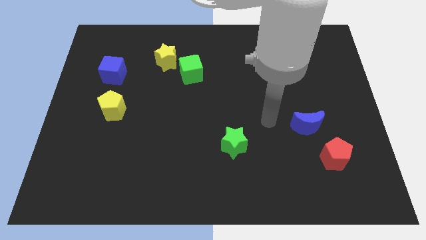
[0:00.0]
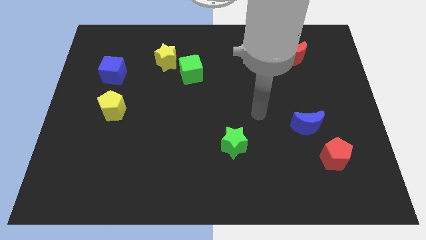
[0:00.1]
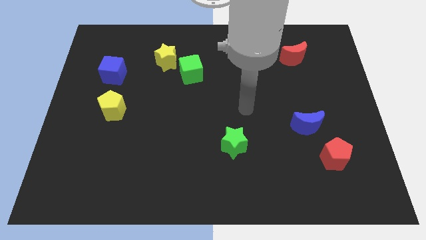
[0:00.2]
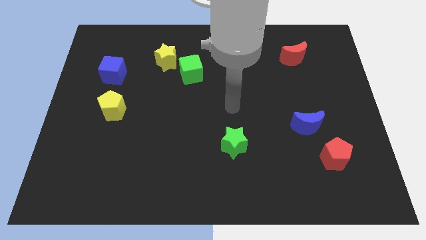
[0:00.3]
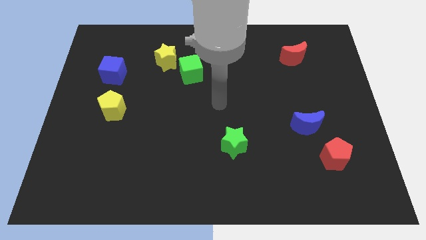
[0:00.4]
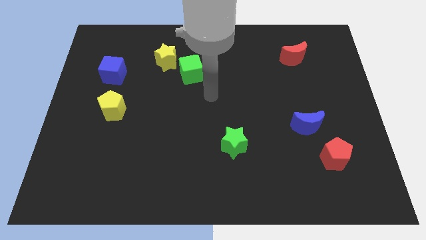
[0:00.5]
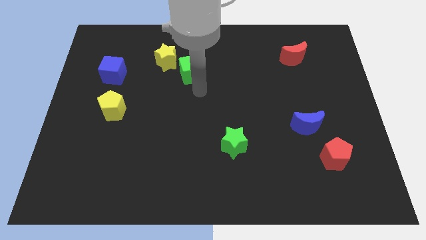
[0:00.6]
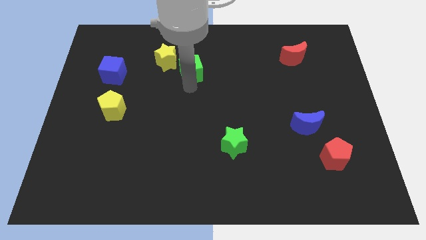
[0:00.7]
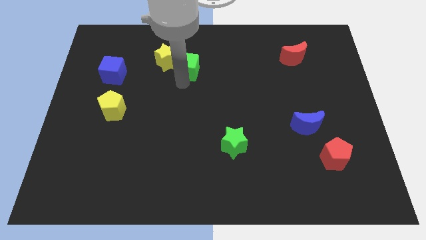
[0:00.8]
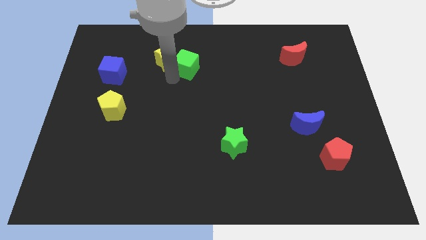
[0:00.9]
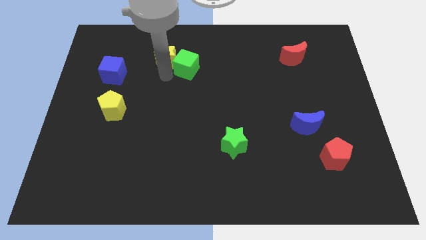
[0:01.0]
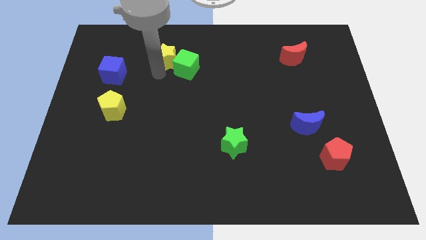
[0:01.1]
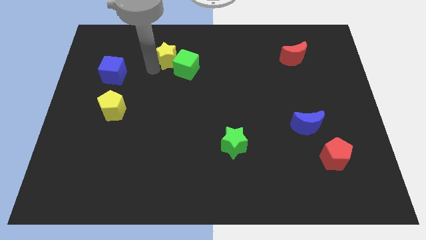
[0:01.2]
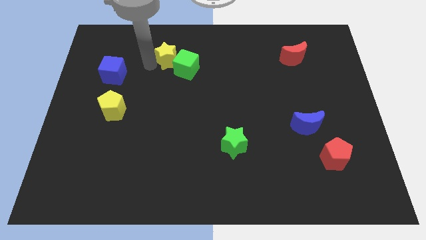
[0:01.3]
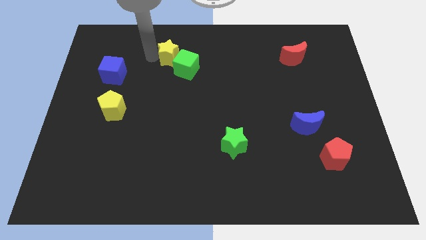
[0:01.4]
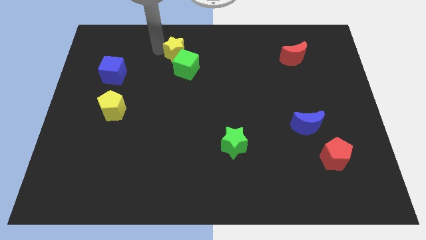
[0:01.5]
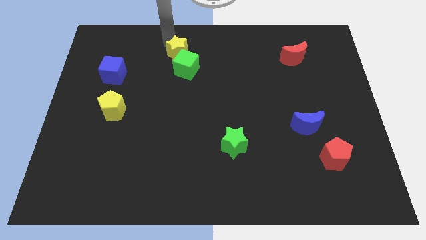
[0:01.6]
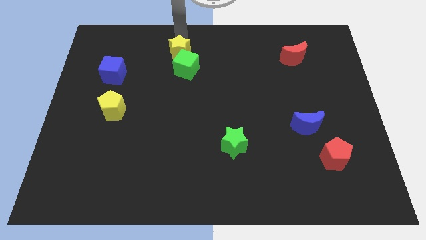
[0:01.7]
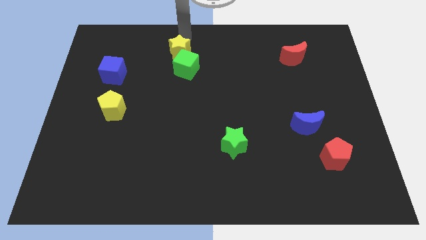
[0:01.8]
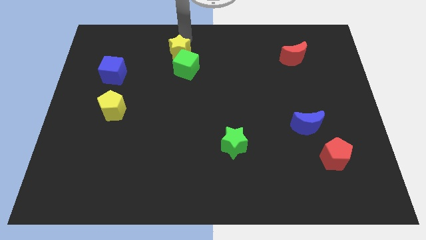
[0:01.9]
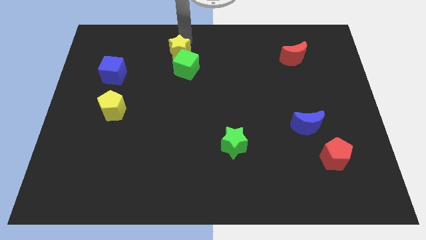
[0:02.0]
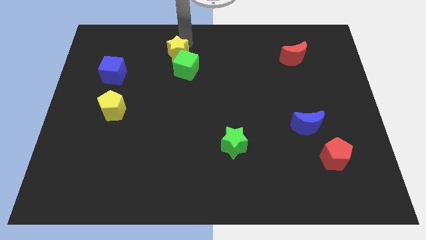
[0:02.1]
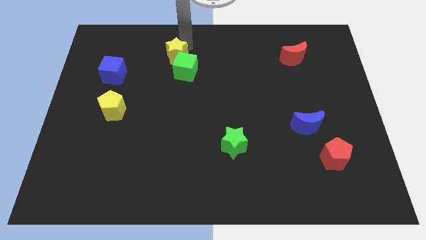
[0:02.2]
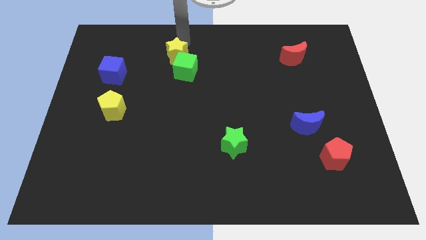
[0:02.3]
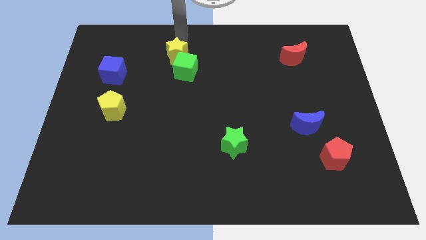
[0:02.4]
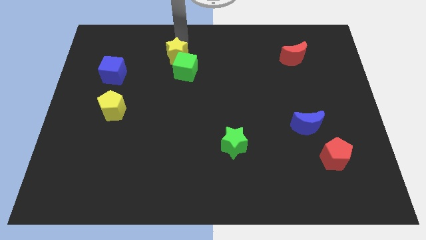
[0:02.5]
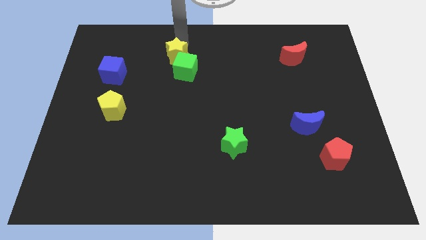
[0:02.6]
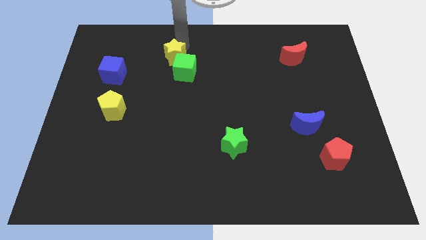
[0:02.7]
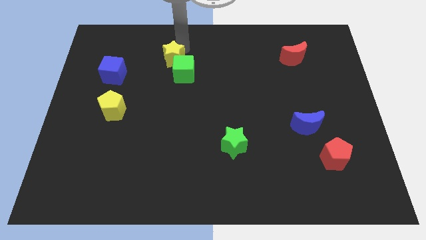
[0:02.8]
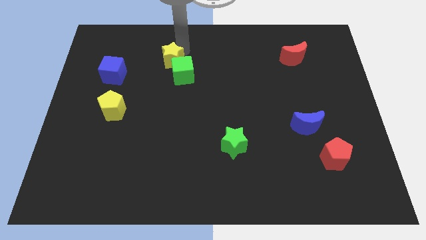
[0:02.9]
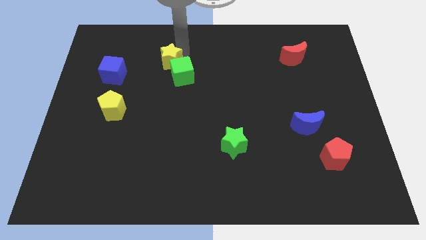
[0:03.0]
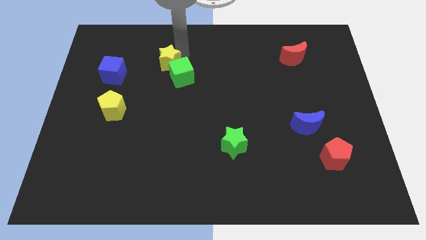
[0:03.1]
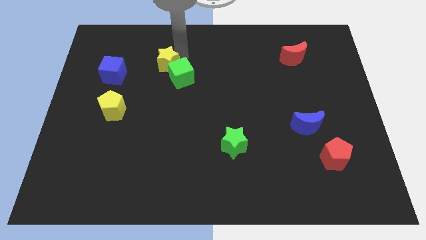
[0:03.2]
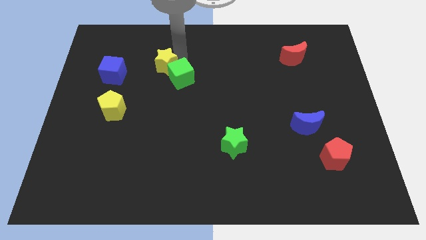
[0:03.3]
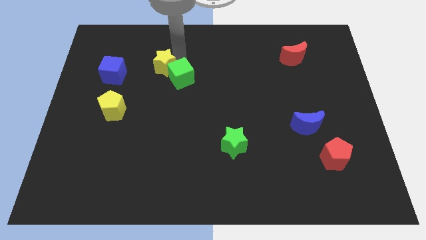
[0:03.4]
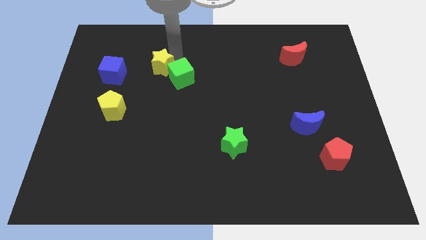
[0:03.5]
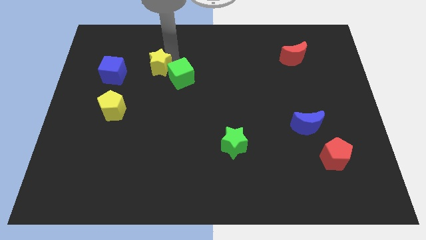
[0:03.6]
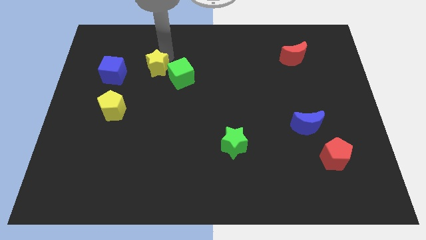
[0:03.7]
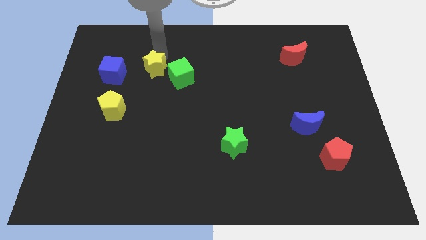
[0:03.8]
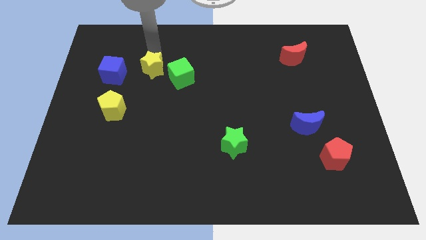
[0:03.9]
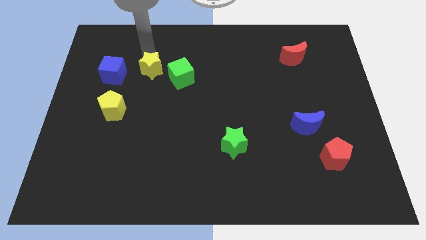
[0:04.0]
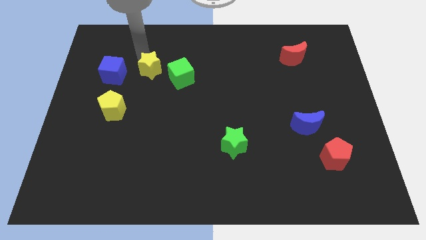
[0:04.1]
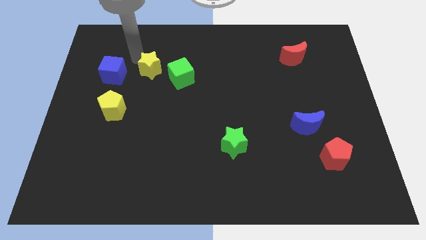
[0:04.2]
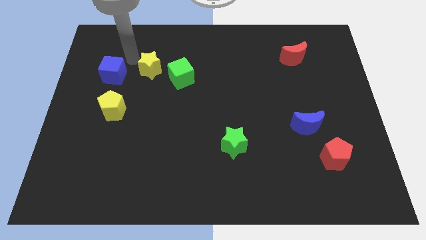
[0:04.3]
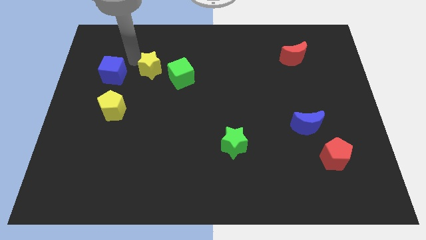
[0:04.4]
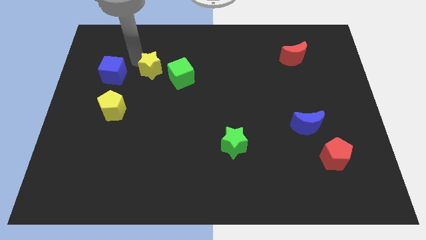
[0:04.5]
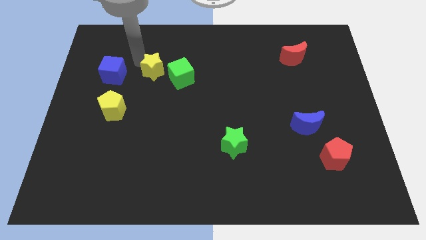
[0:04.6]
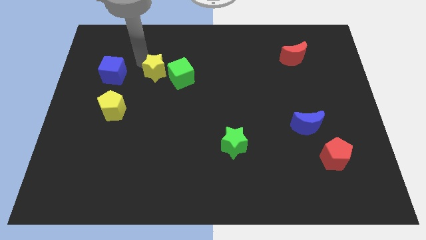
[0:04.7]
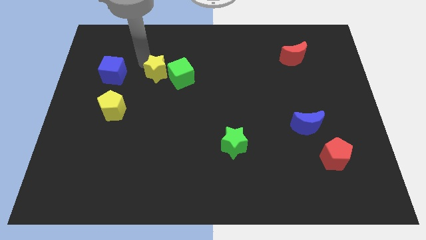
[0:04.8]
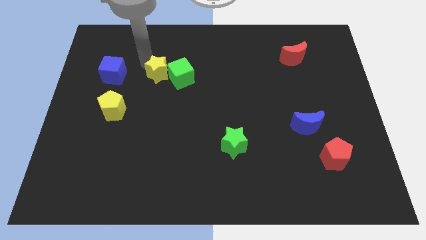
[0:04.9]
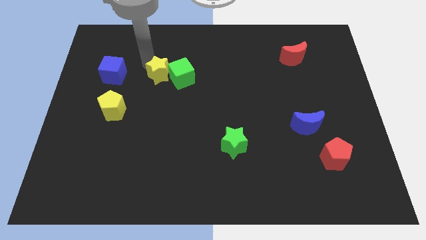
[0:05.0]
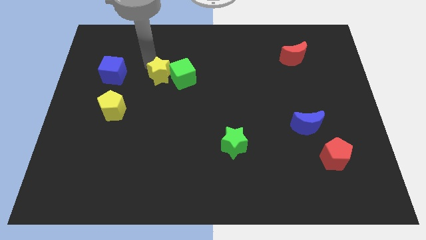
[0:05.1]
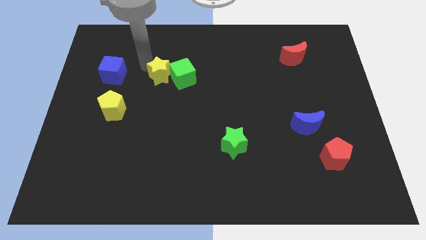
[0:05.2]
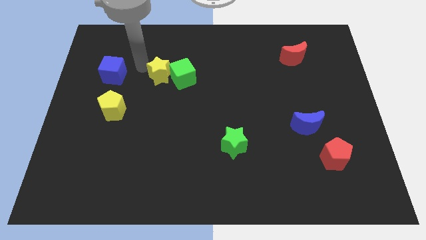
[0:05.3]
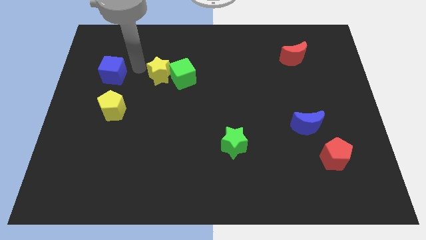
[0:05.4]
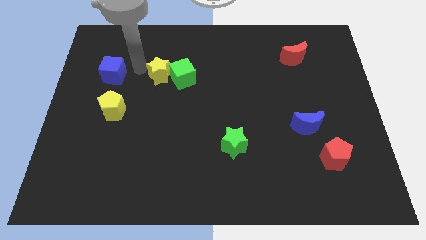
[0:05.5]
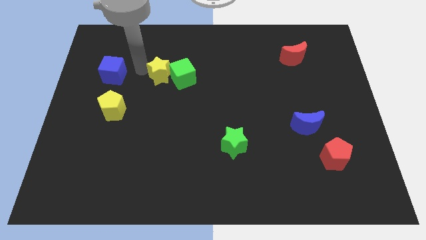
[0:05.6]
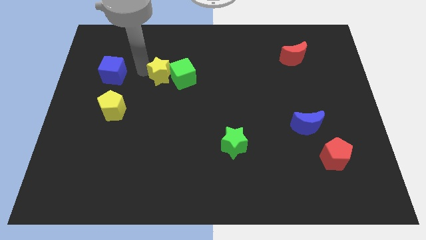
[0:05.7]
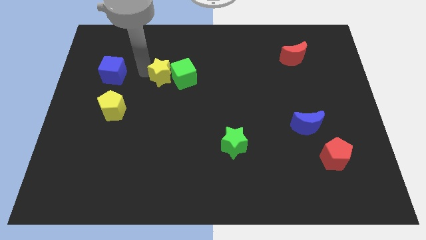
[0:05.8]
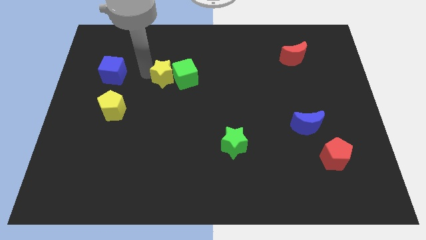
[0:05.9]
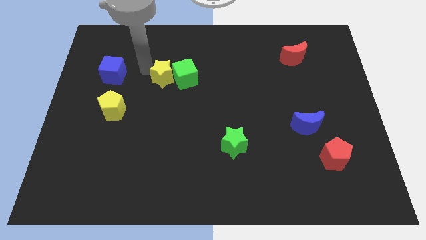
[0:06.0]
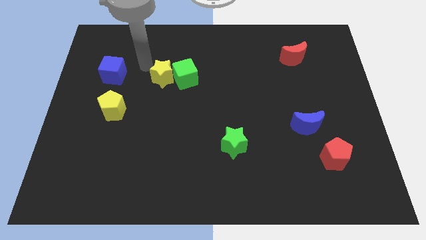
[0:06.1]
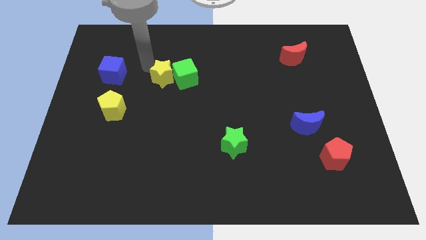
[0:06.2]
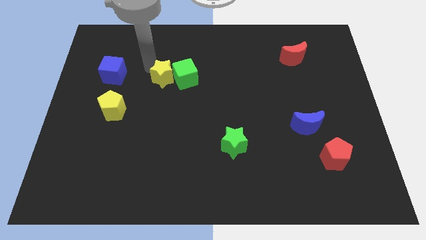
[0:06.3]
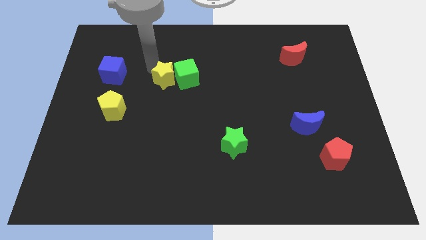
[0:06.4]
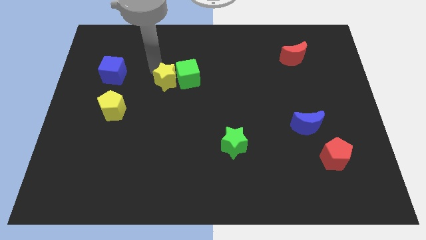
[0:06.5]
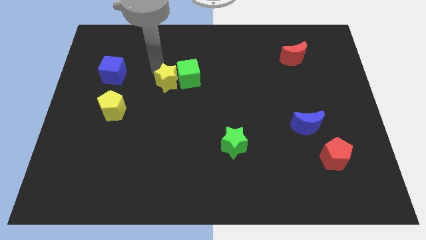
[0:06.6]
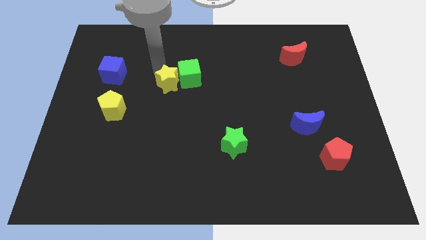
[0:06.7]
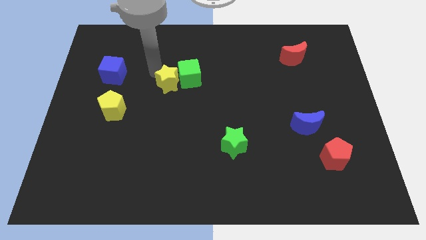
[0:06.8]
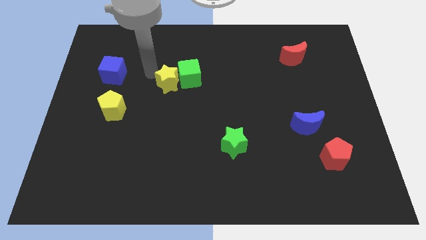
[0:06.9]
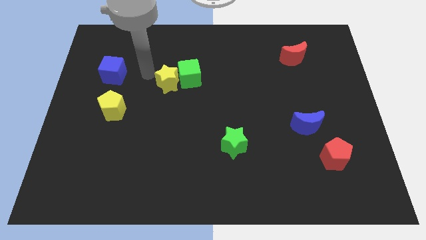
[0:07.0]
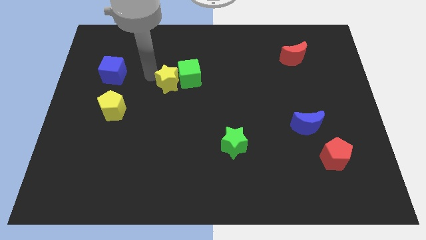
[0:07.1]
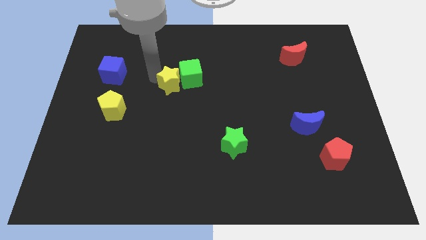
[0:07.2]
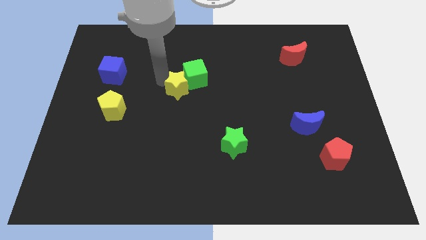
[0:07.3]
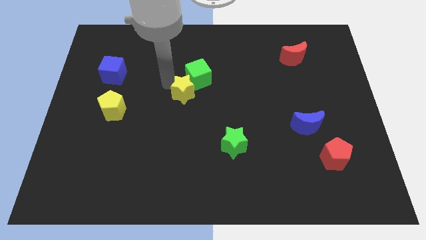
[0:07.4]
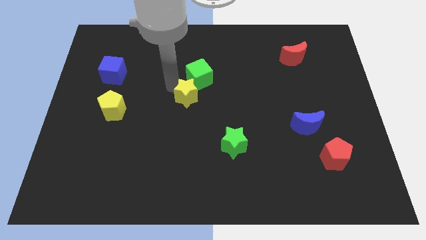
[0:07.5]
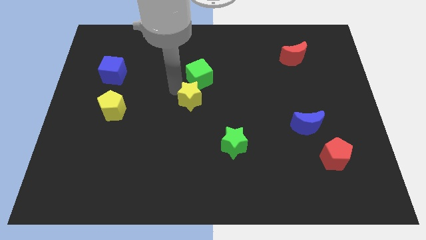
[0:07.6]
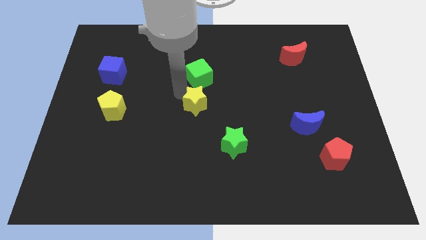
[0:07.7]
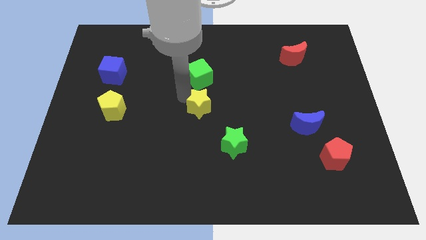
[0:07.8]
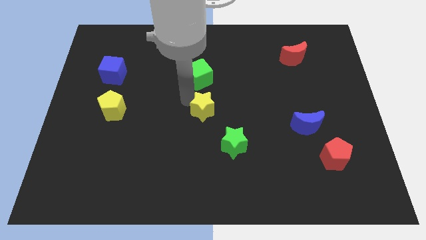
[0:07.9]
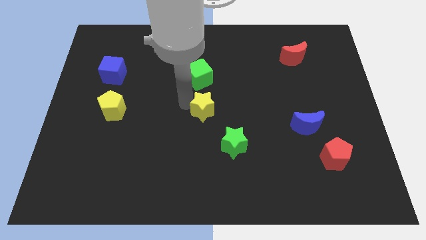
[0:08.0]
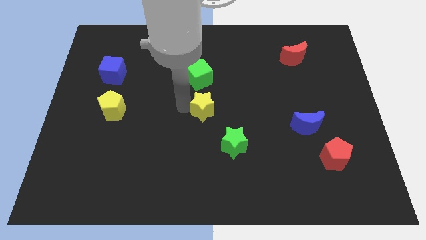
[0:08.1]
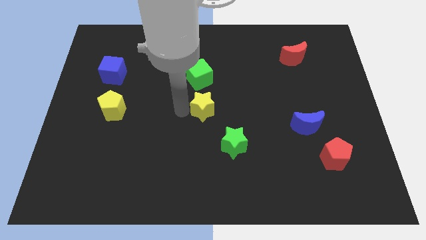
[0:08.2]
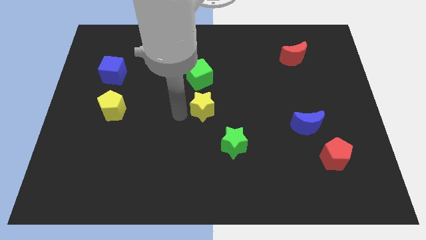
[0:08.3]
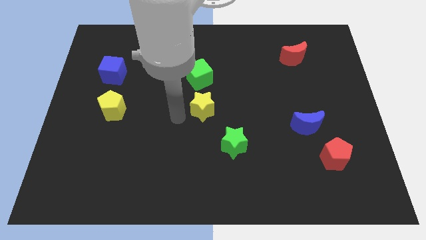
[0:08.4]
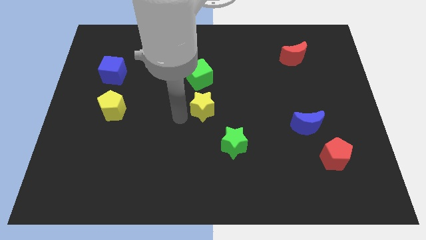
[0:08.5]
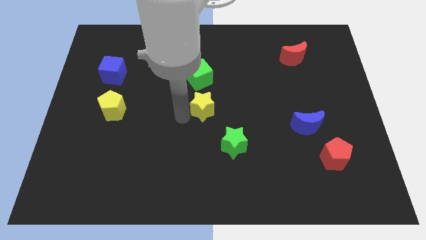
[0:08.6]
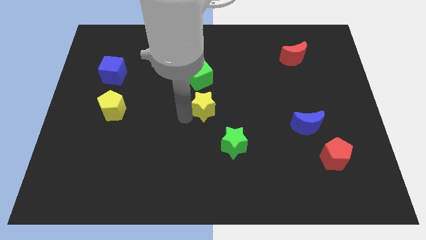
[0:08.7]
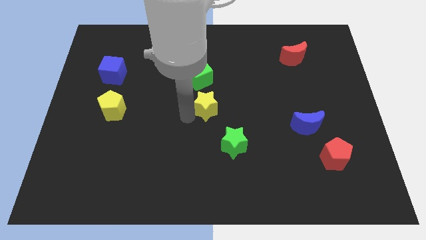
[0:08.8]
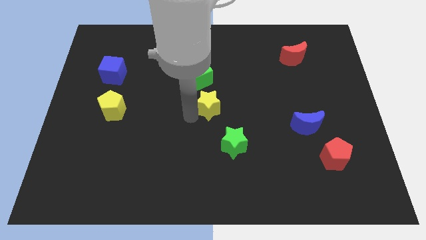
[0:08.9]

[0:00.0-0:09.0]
slide the yellow star to the top of the green star
